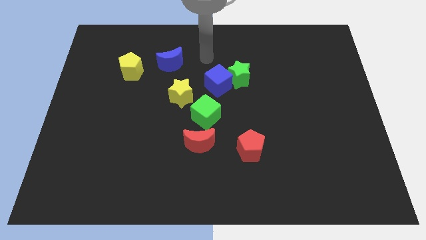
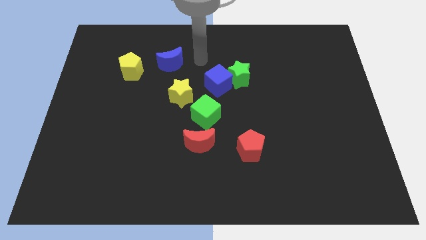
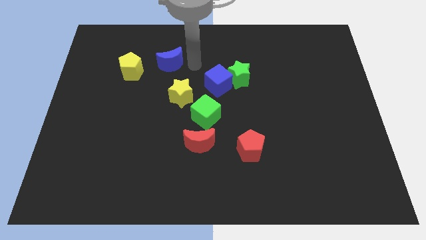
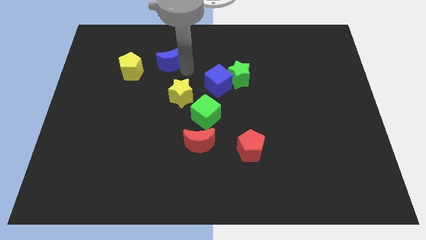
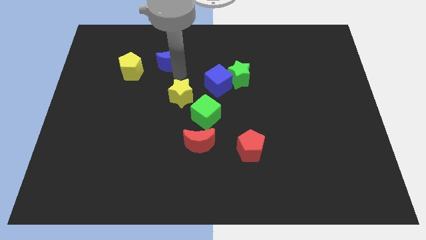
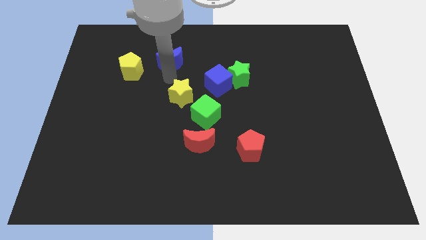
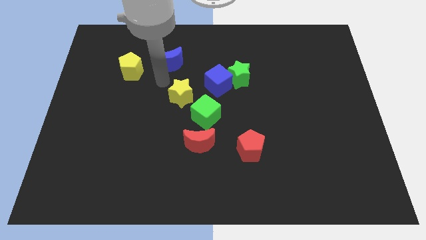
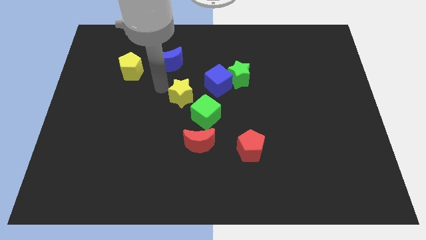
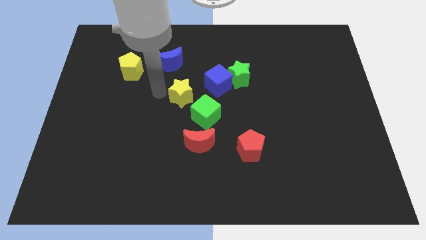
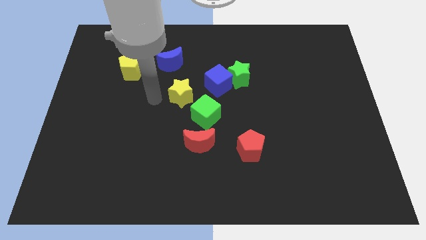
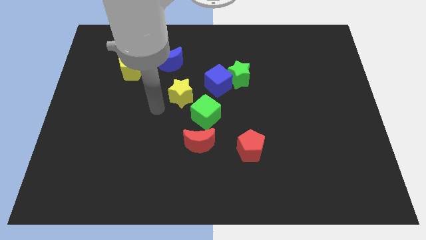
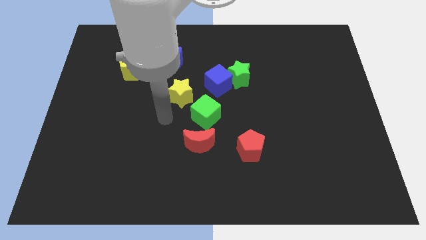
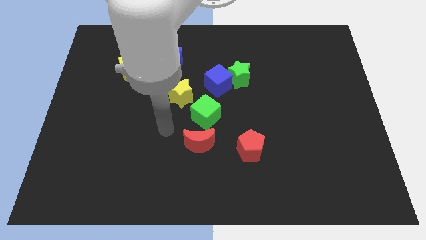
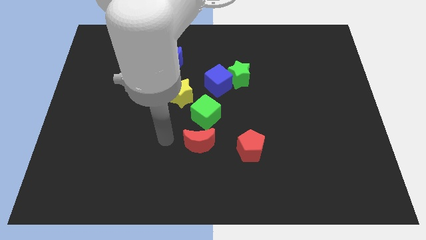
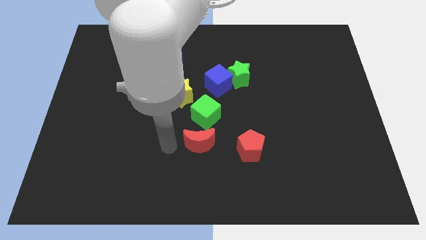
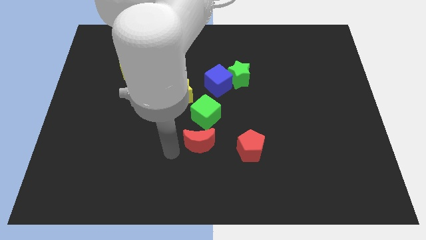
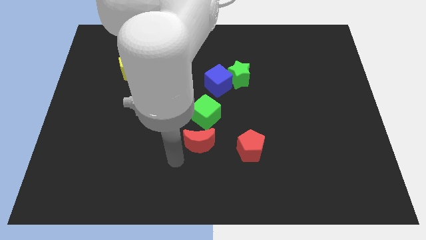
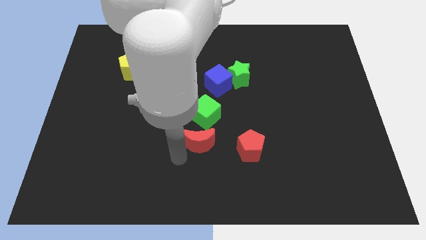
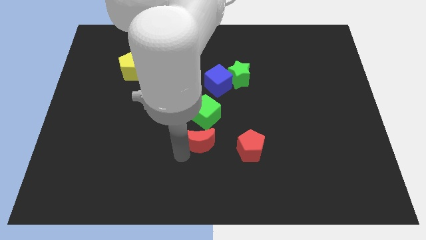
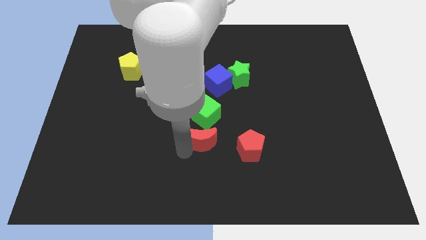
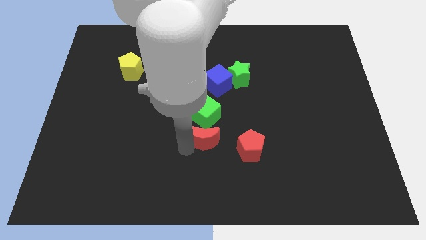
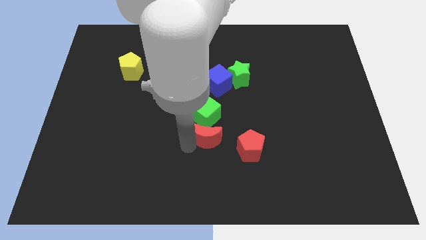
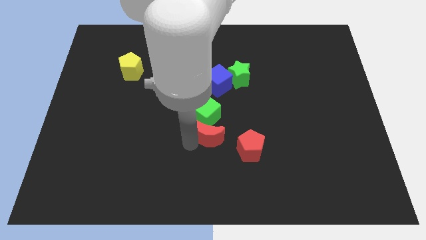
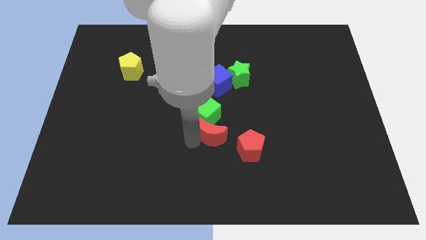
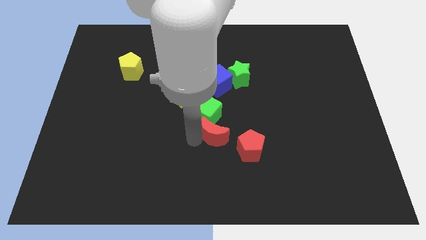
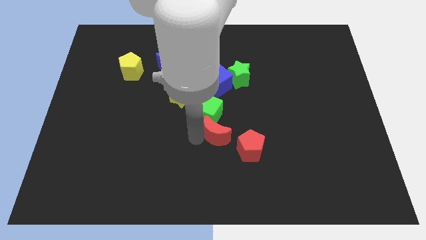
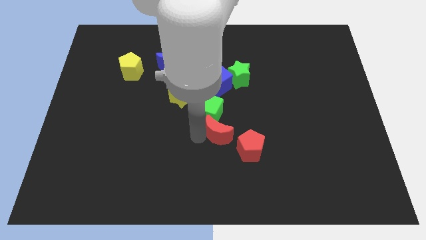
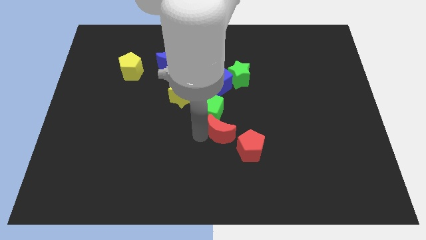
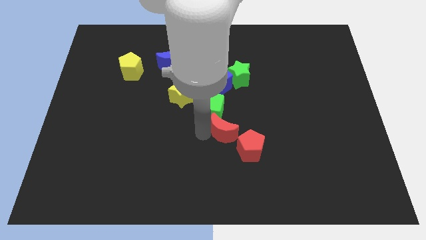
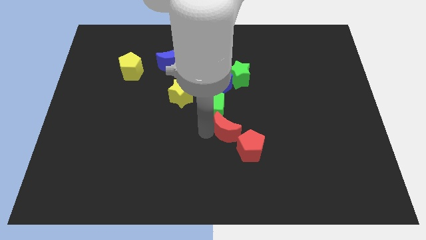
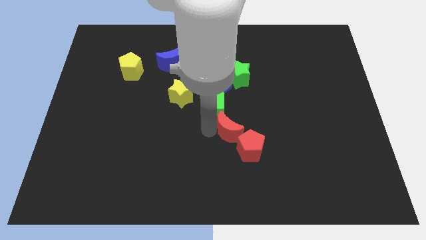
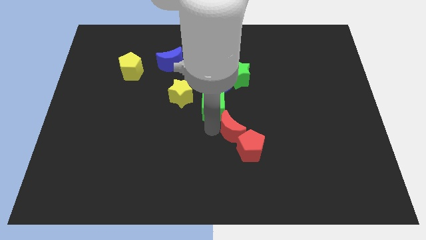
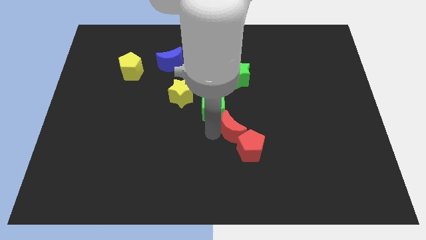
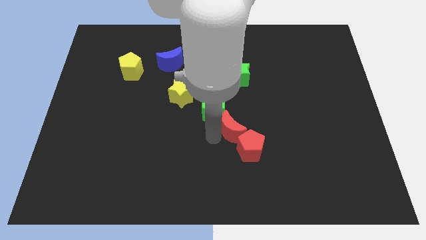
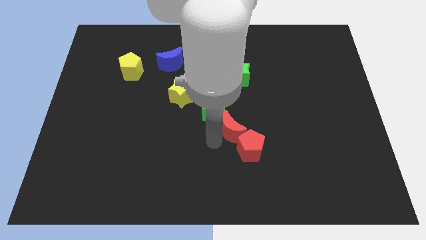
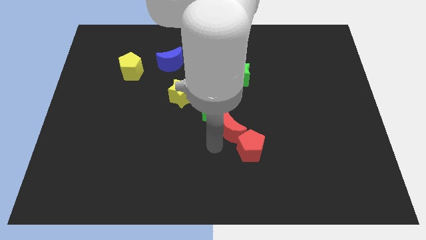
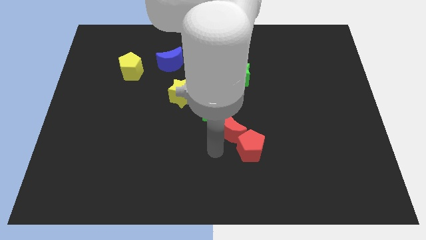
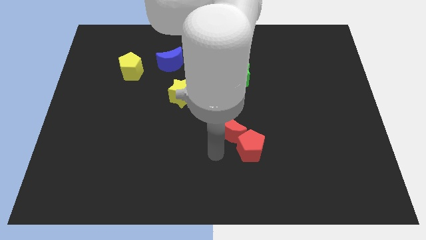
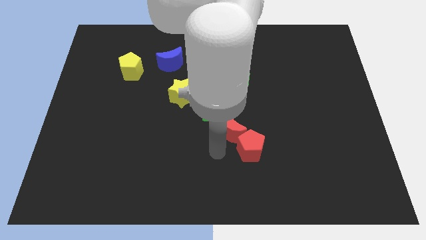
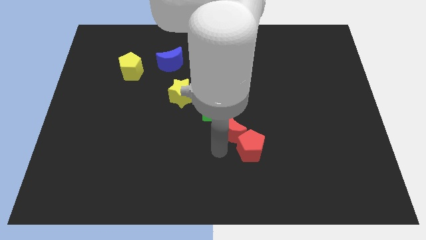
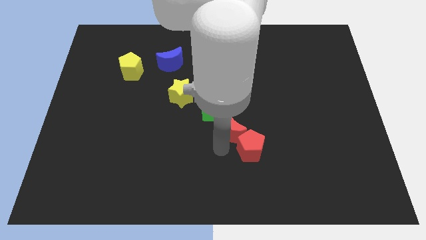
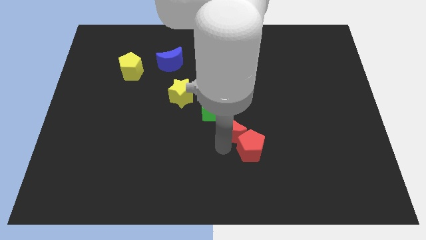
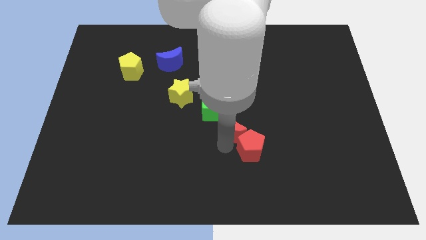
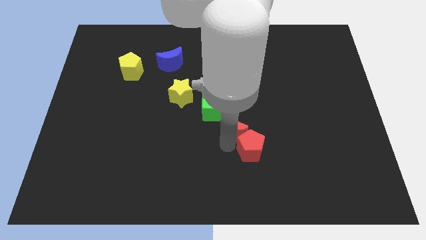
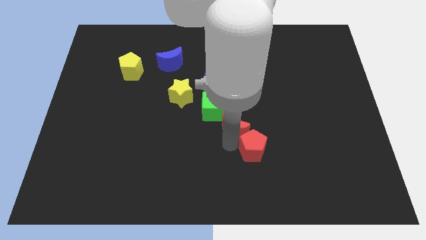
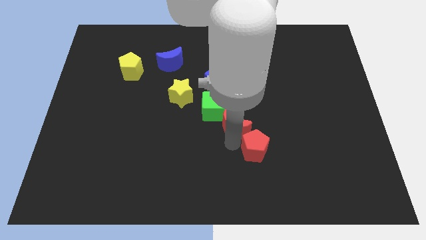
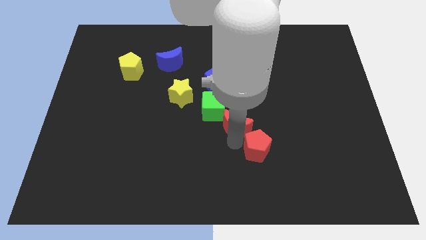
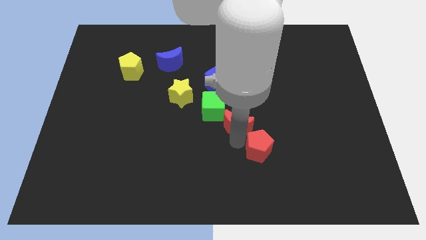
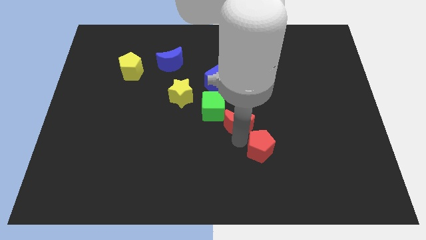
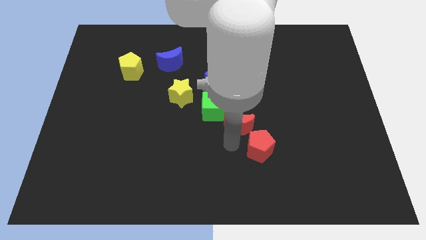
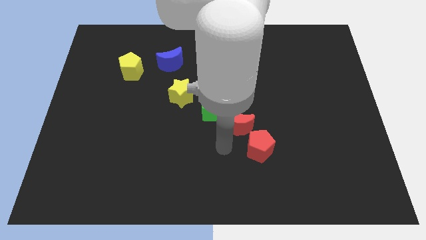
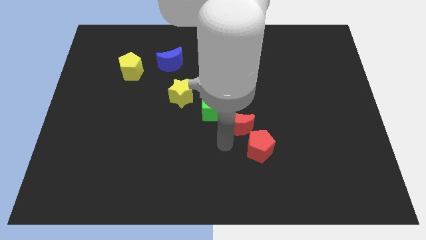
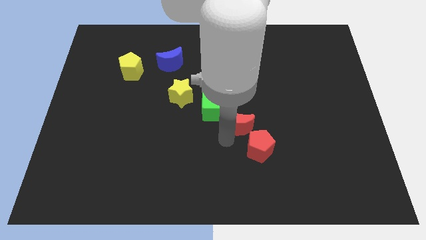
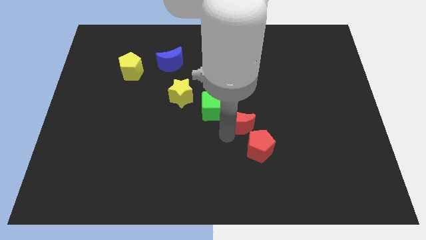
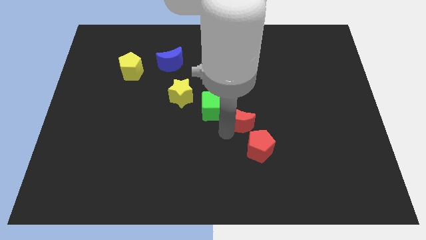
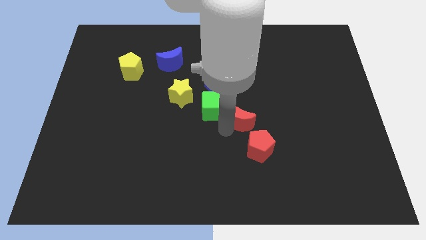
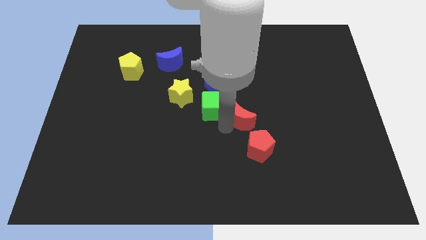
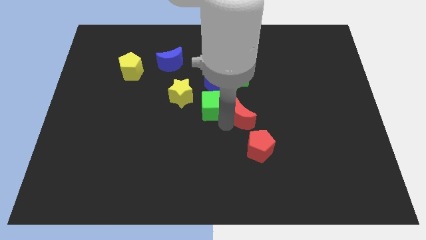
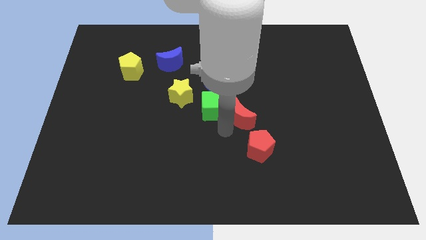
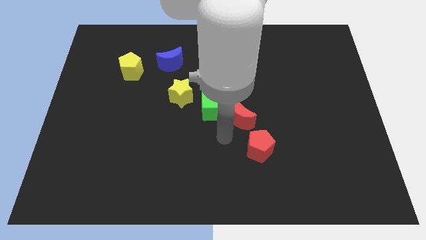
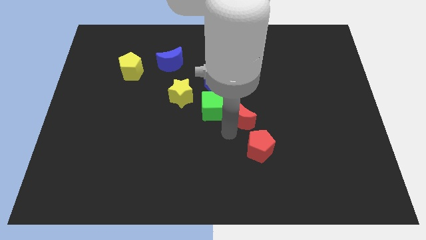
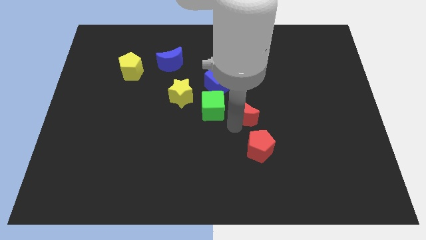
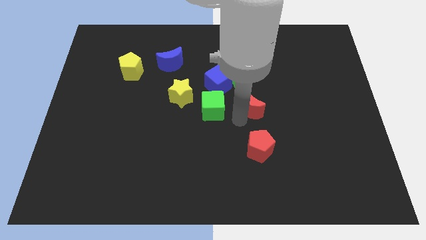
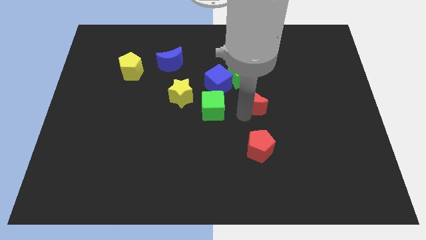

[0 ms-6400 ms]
put the red moon diagonally down and to the right of the green star

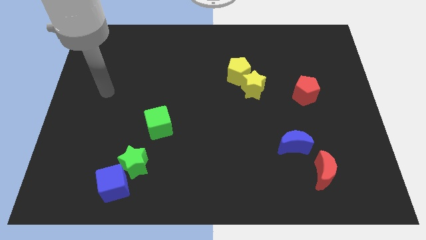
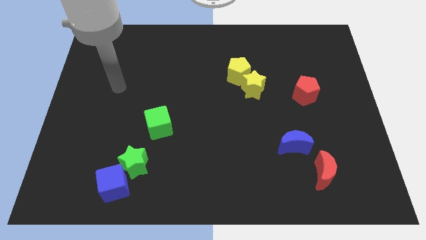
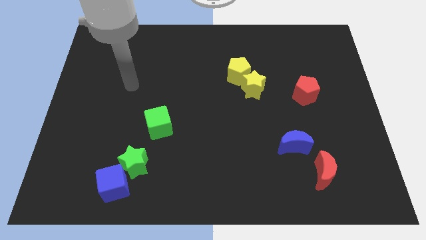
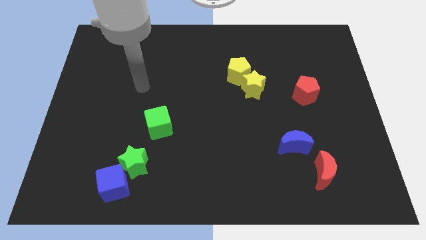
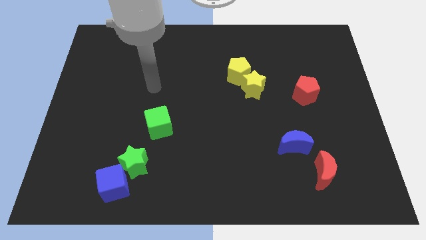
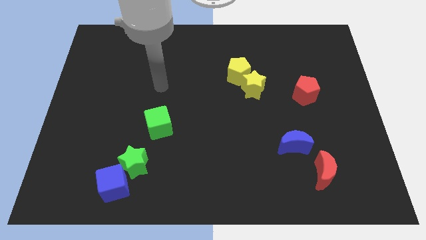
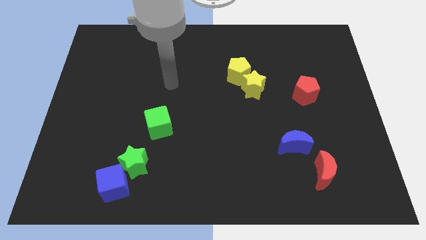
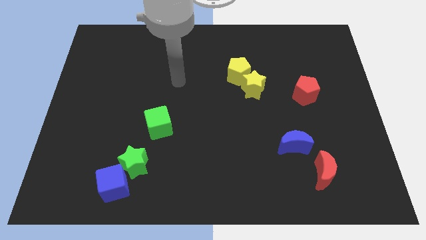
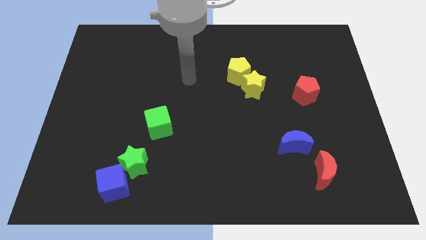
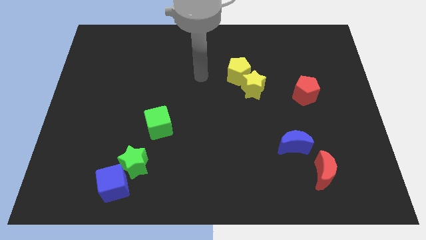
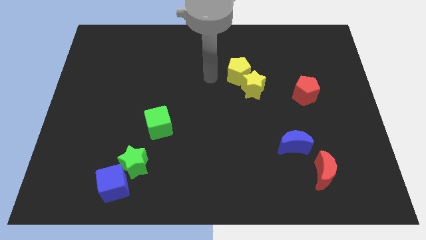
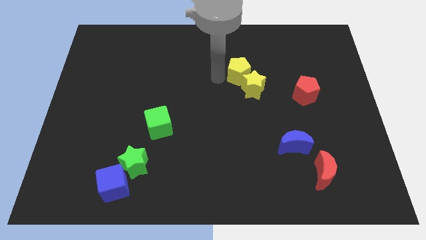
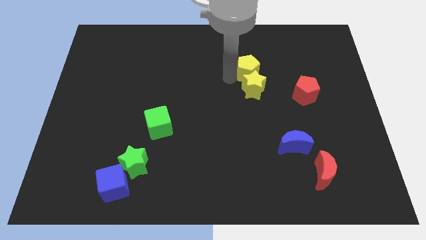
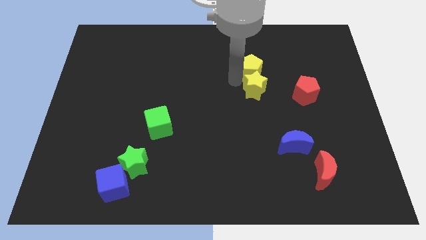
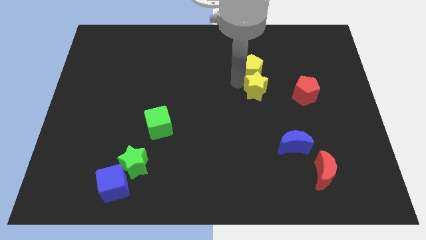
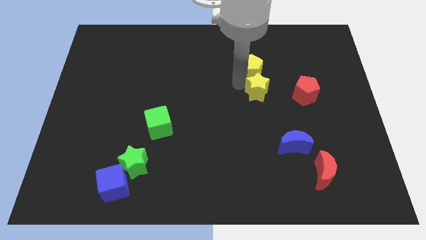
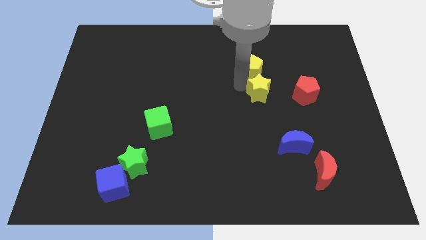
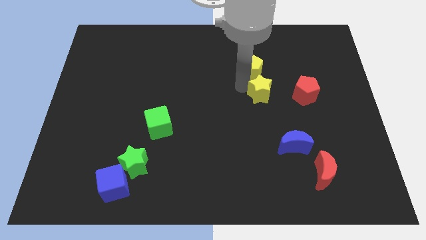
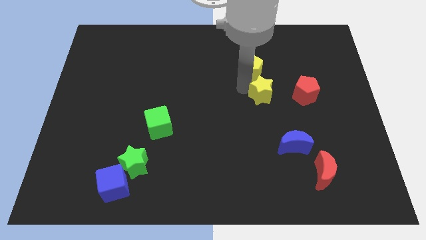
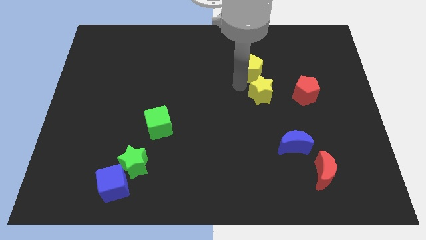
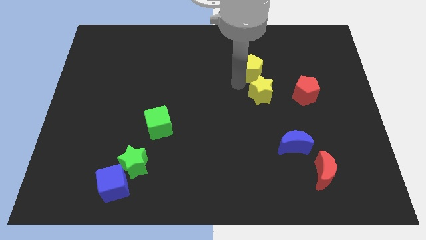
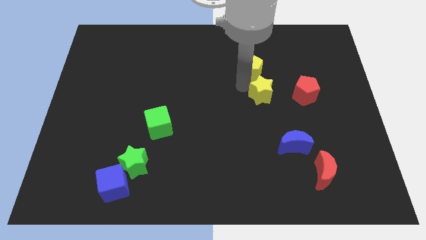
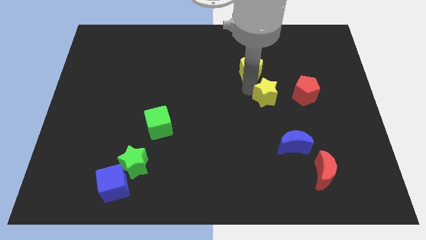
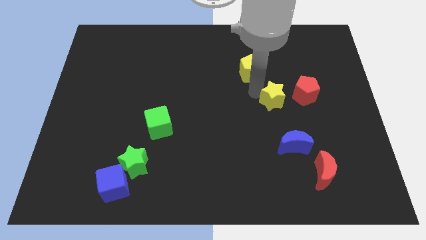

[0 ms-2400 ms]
put the yellow star above the blue moon
